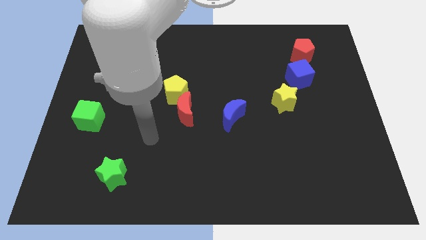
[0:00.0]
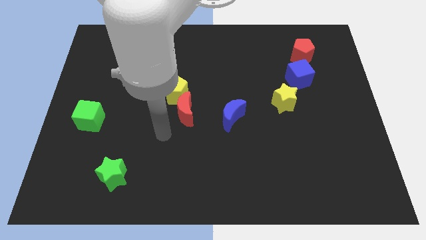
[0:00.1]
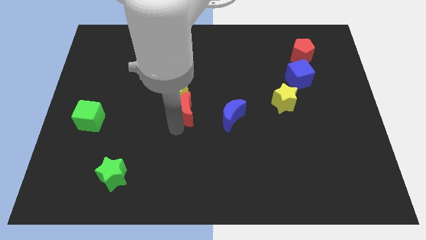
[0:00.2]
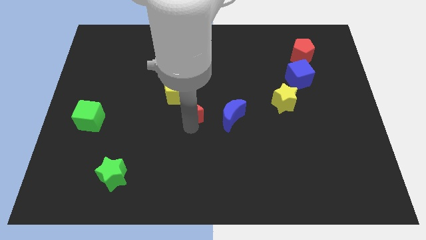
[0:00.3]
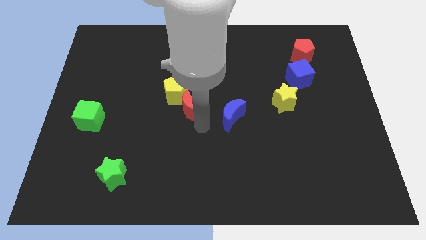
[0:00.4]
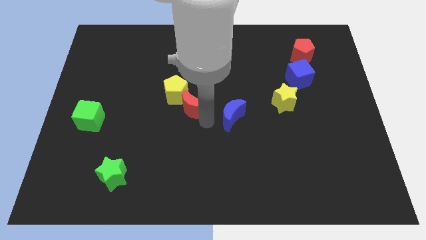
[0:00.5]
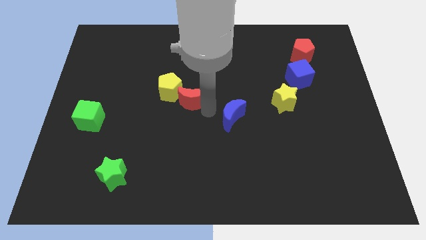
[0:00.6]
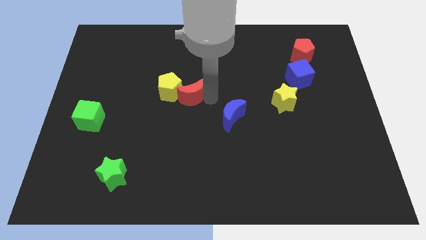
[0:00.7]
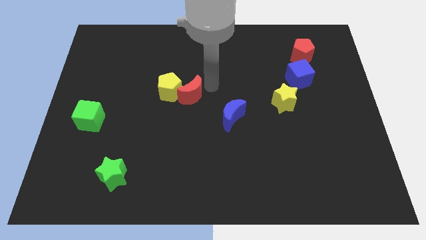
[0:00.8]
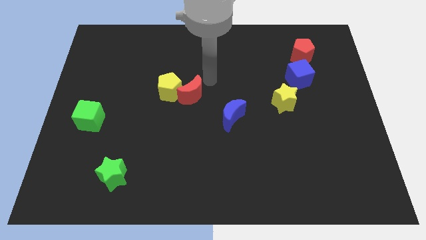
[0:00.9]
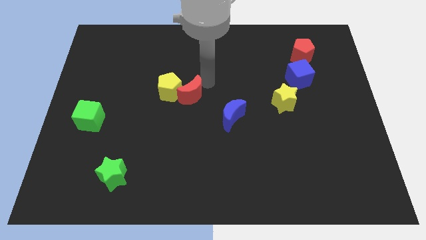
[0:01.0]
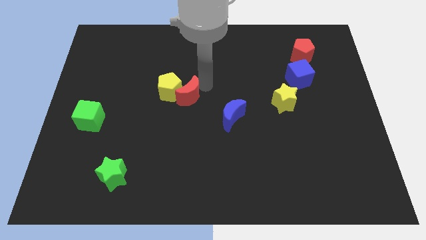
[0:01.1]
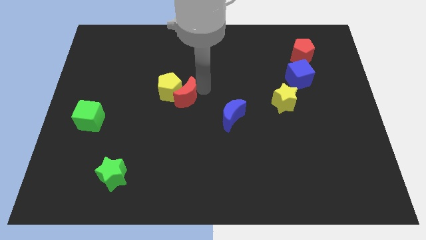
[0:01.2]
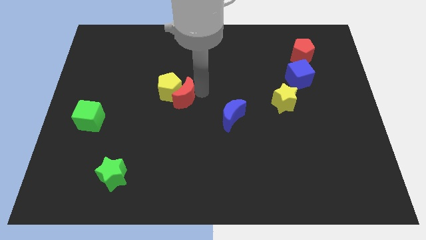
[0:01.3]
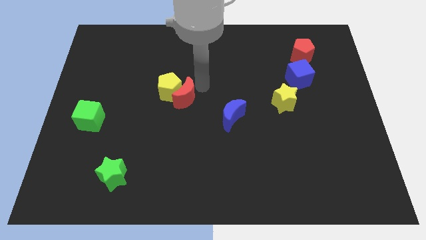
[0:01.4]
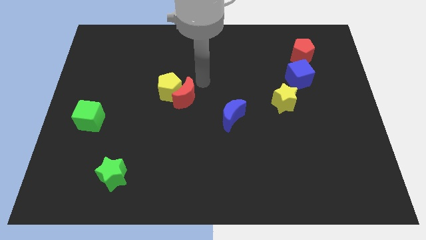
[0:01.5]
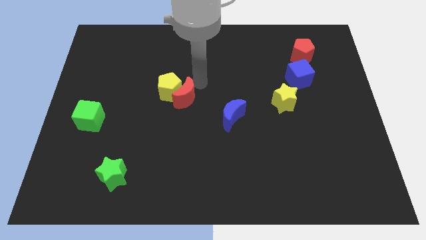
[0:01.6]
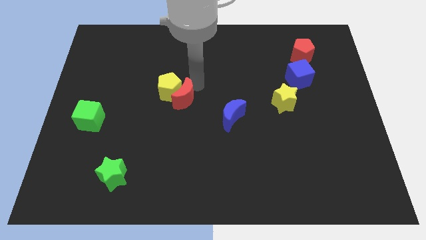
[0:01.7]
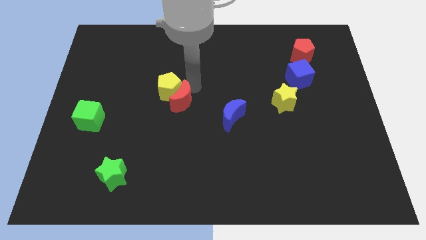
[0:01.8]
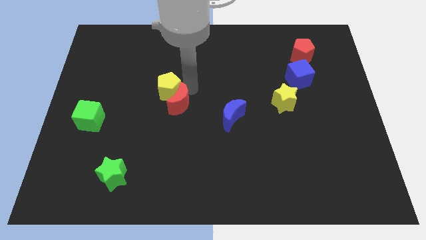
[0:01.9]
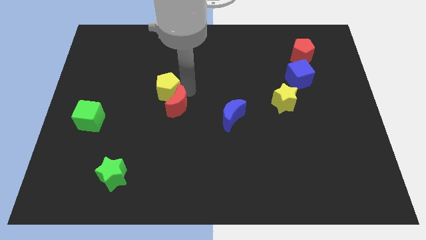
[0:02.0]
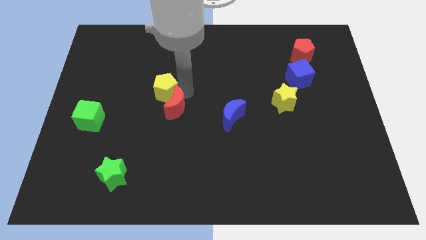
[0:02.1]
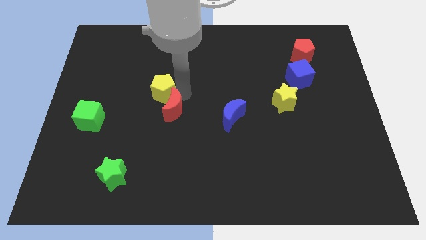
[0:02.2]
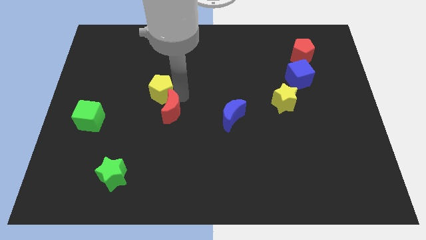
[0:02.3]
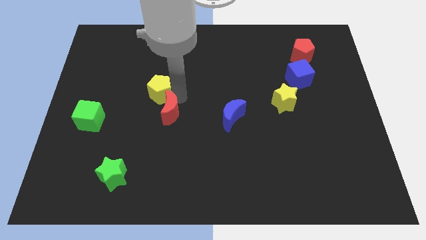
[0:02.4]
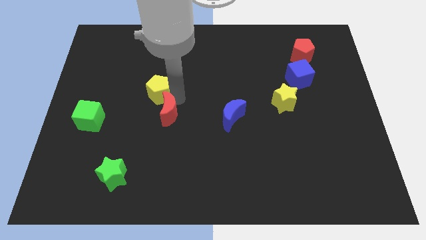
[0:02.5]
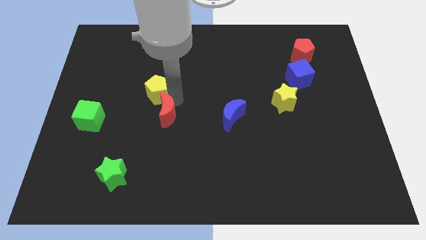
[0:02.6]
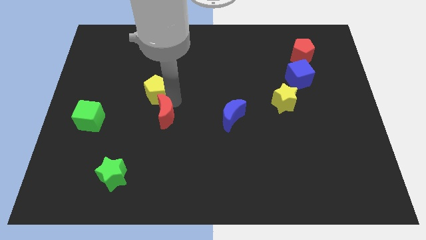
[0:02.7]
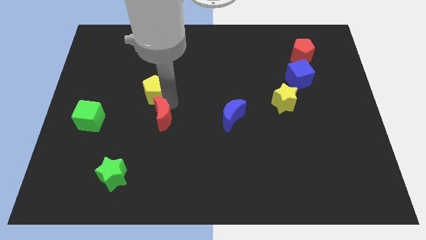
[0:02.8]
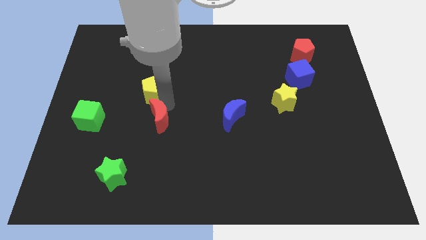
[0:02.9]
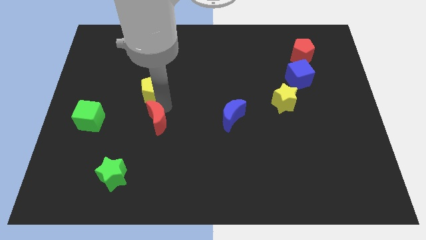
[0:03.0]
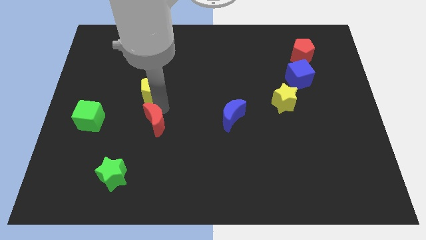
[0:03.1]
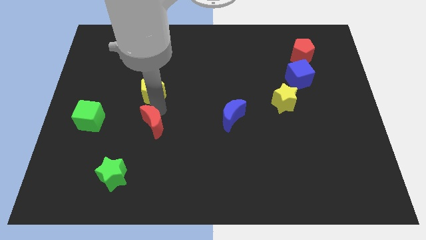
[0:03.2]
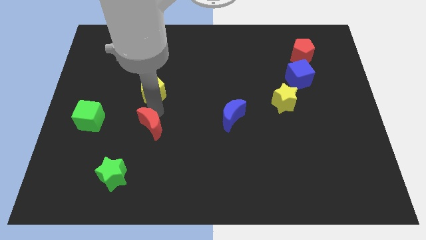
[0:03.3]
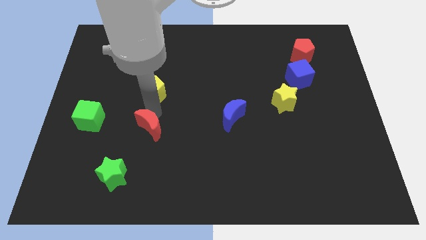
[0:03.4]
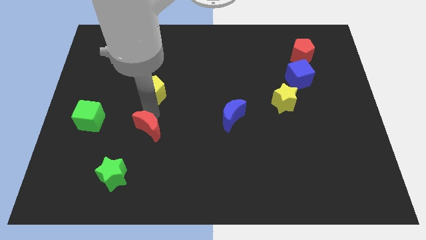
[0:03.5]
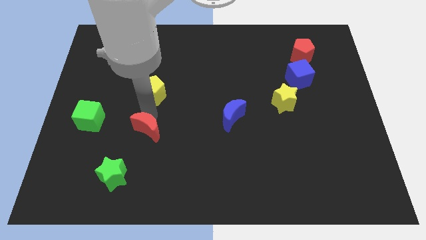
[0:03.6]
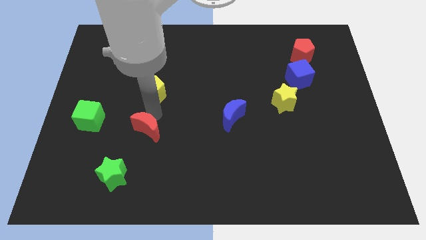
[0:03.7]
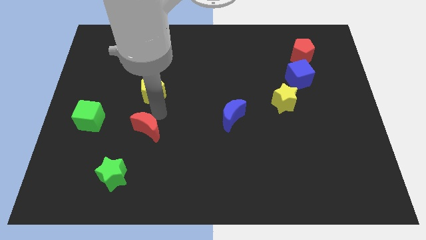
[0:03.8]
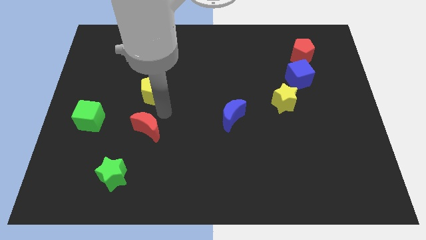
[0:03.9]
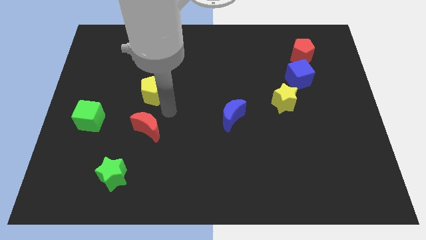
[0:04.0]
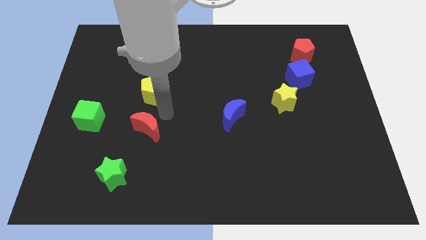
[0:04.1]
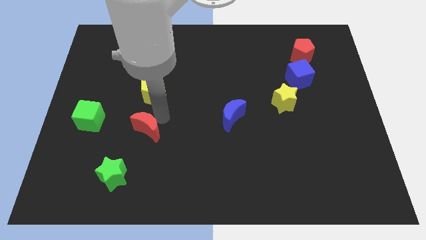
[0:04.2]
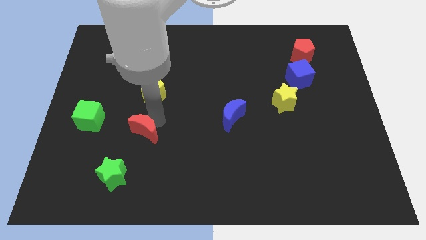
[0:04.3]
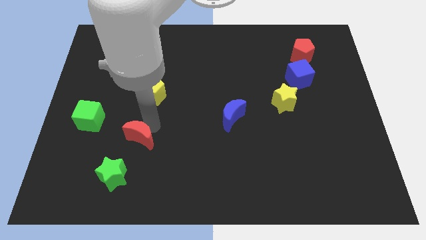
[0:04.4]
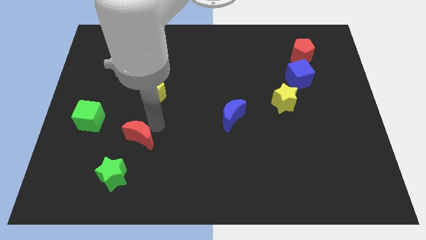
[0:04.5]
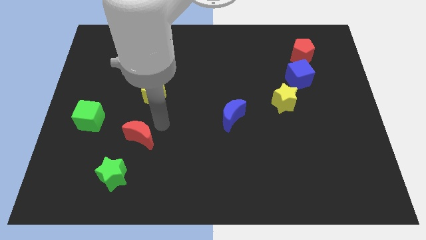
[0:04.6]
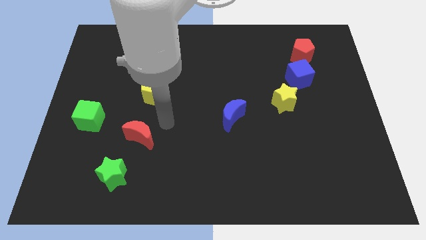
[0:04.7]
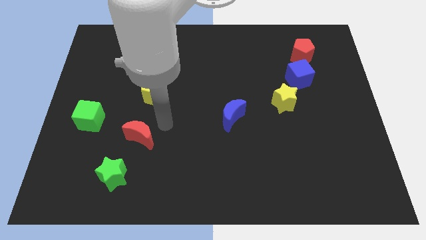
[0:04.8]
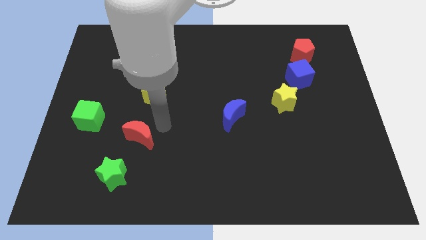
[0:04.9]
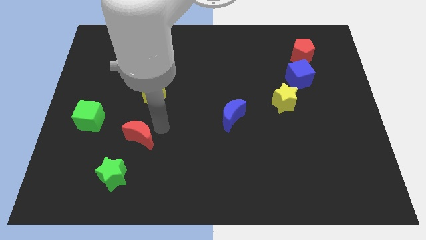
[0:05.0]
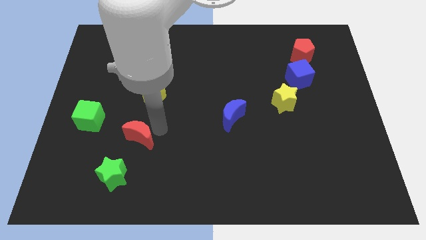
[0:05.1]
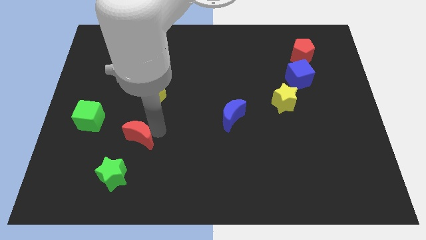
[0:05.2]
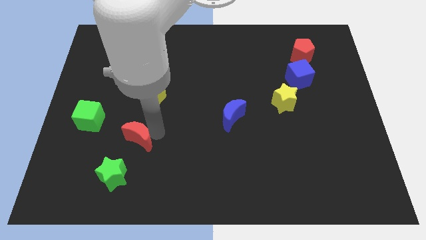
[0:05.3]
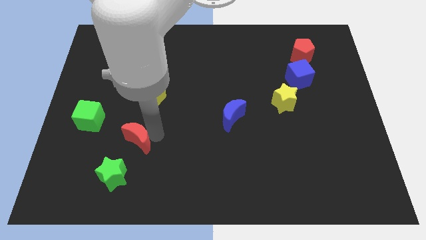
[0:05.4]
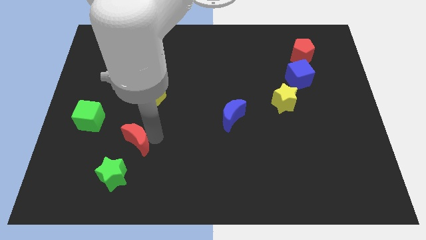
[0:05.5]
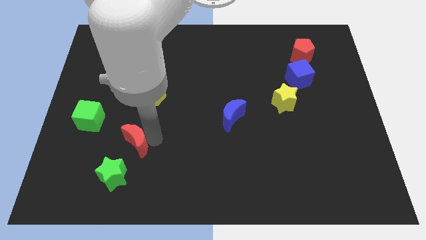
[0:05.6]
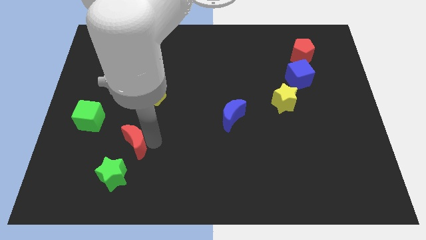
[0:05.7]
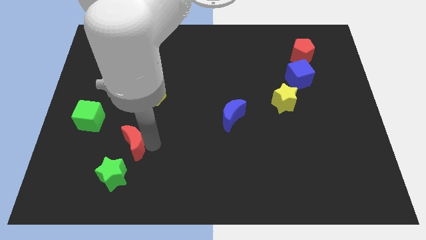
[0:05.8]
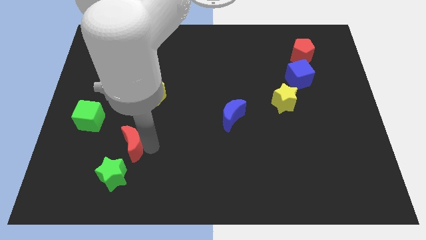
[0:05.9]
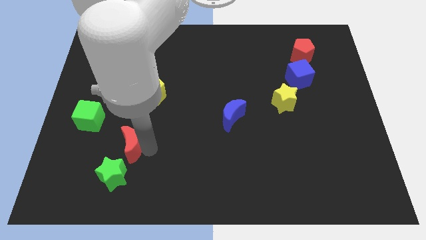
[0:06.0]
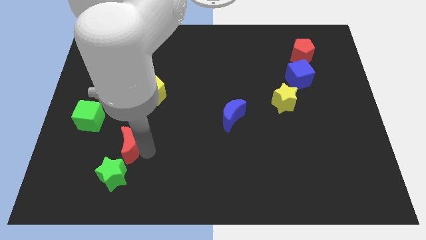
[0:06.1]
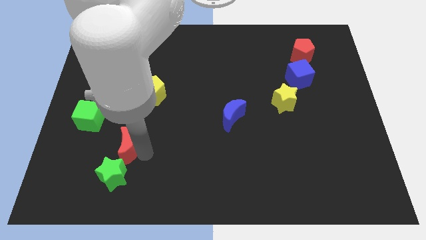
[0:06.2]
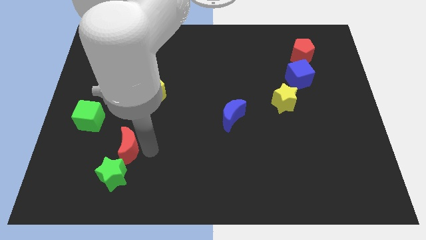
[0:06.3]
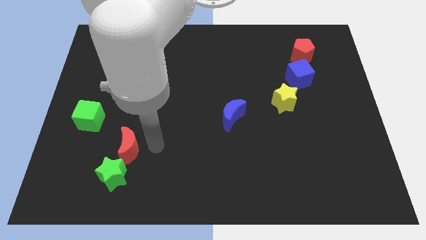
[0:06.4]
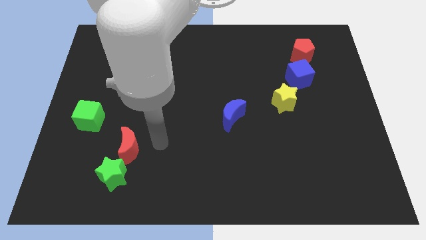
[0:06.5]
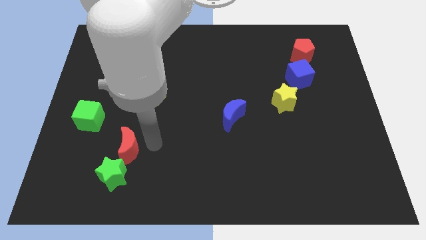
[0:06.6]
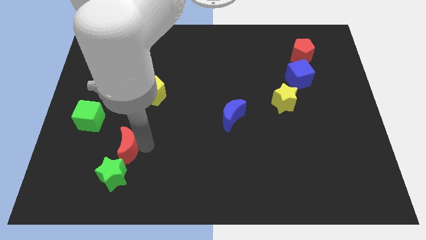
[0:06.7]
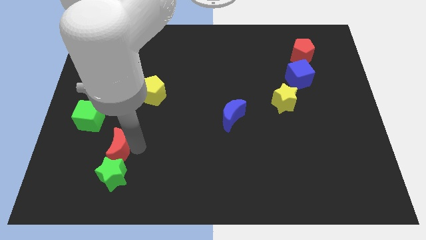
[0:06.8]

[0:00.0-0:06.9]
slide the red moon diagonally up and to the left of the green star
